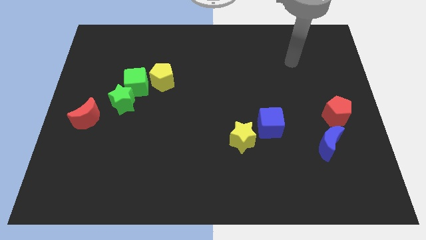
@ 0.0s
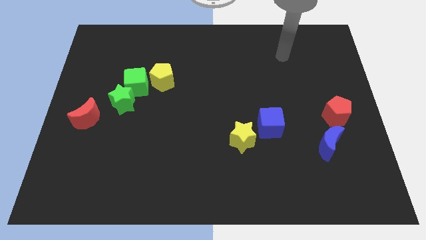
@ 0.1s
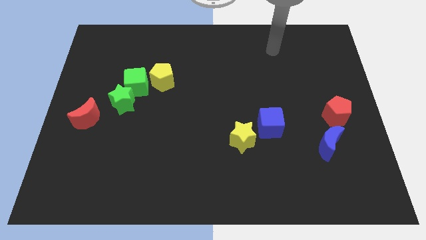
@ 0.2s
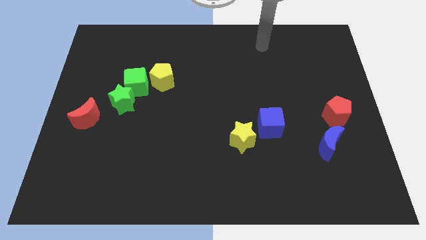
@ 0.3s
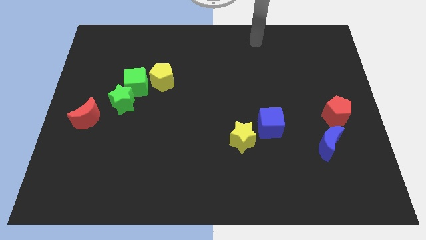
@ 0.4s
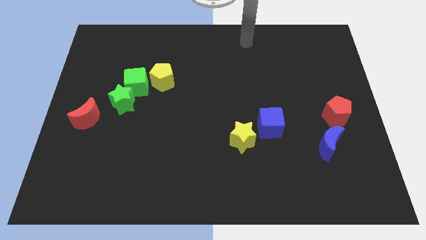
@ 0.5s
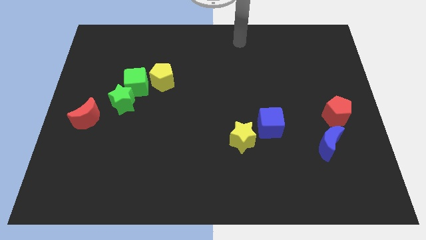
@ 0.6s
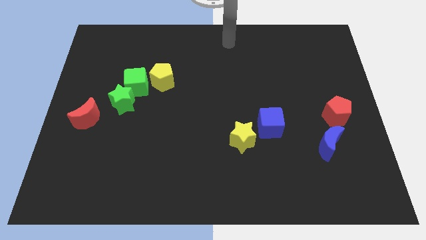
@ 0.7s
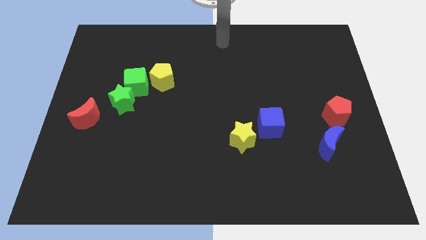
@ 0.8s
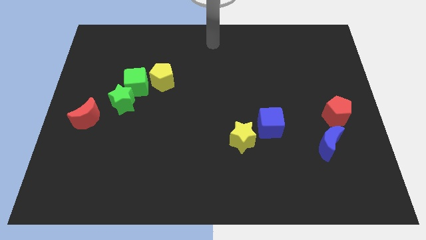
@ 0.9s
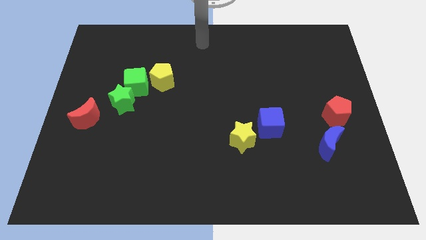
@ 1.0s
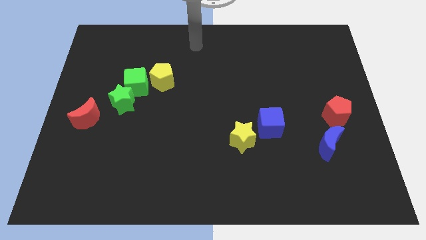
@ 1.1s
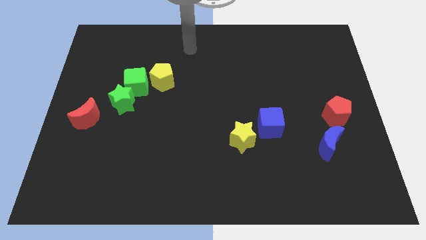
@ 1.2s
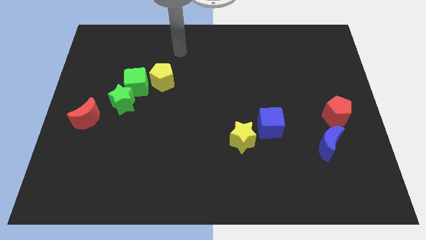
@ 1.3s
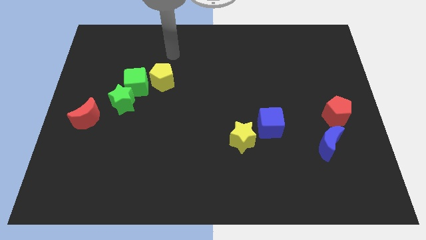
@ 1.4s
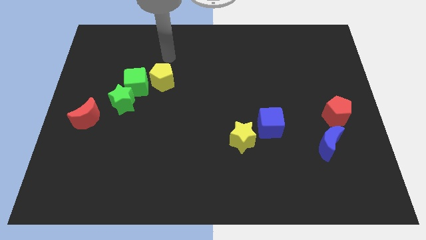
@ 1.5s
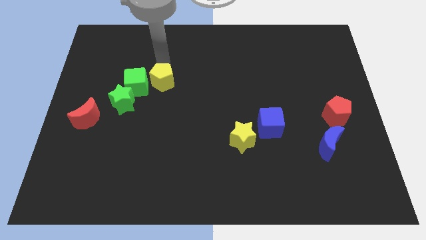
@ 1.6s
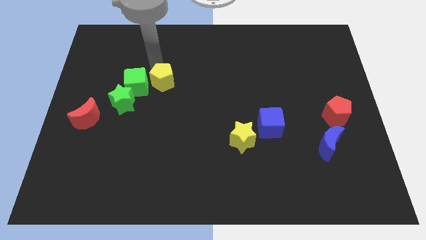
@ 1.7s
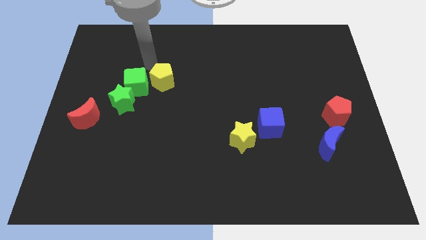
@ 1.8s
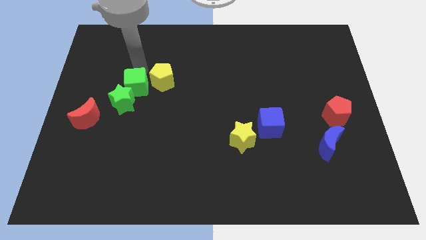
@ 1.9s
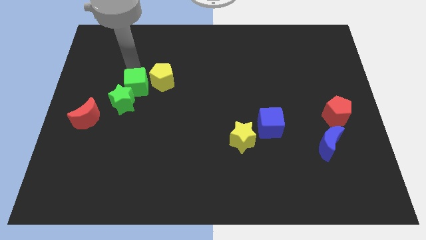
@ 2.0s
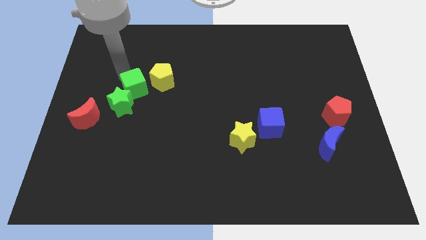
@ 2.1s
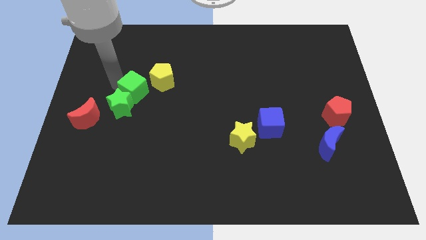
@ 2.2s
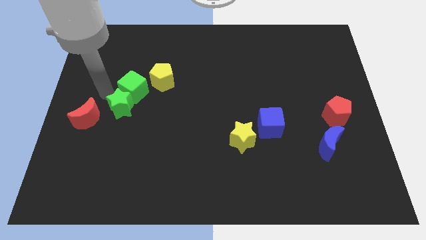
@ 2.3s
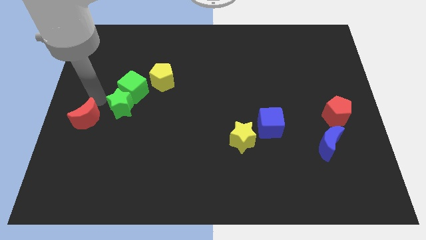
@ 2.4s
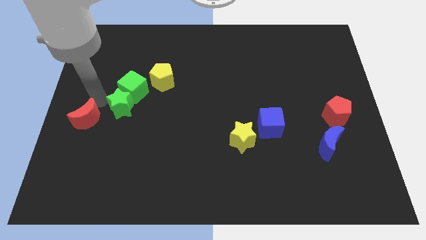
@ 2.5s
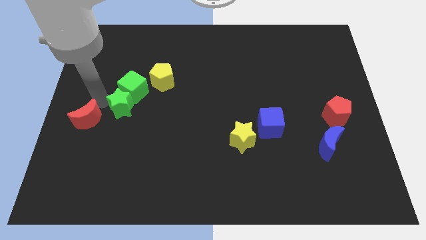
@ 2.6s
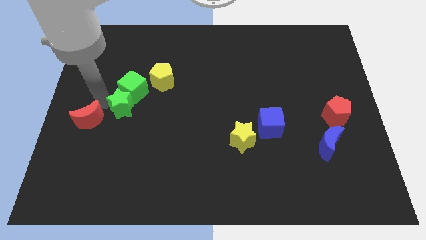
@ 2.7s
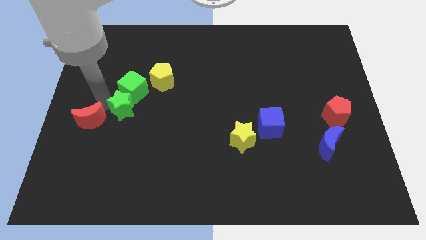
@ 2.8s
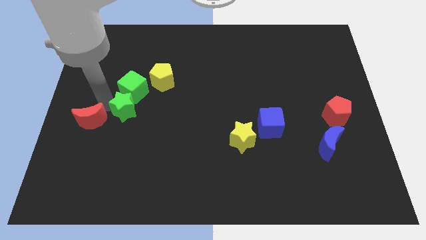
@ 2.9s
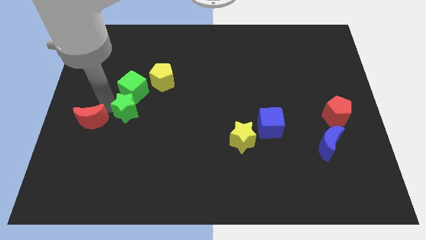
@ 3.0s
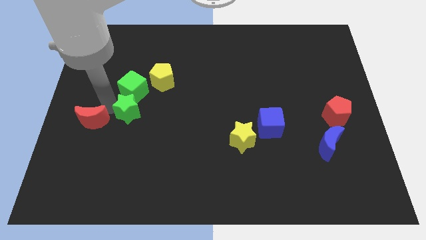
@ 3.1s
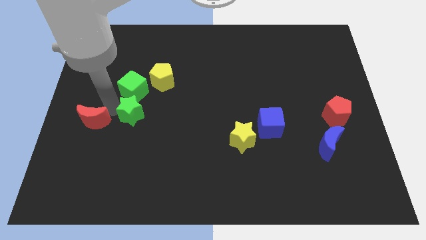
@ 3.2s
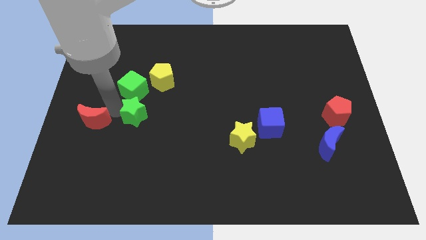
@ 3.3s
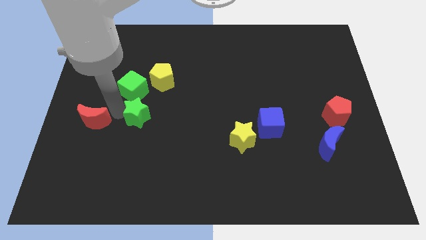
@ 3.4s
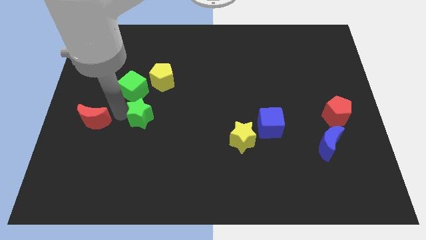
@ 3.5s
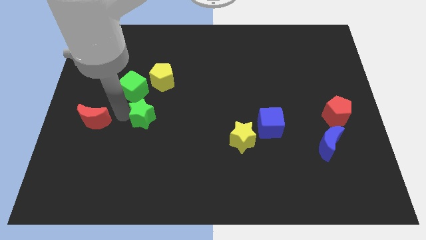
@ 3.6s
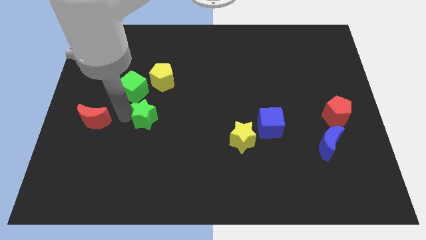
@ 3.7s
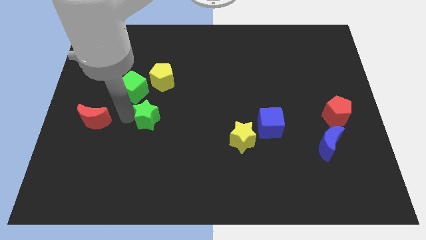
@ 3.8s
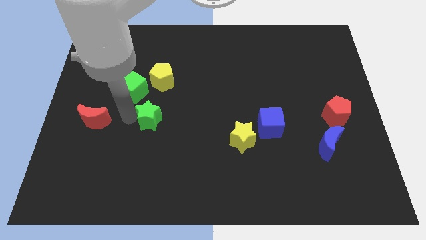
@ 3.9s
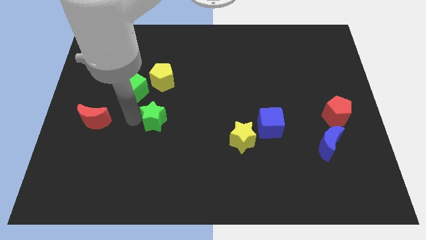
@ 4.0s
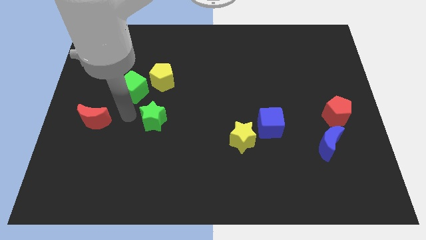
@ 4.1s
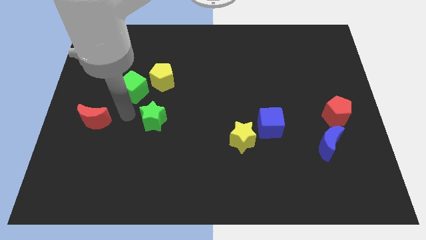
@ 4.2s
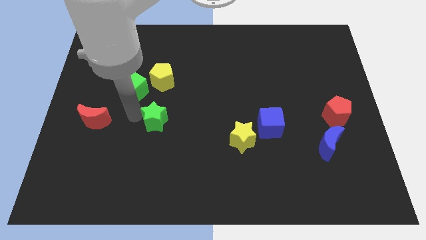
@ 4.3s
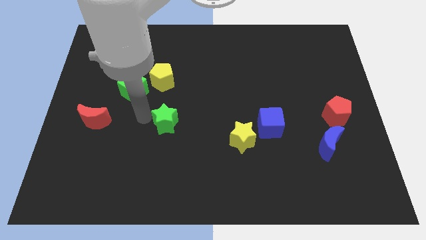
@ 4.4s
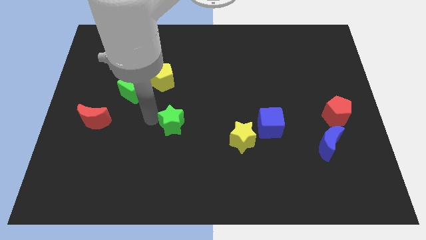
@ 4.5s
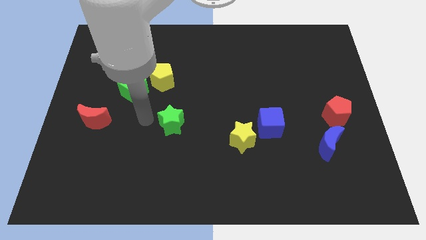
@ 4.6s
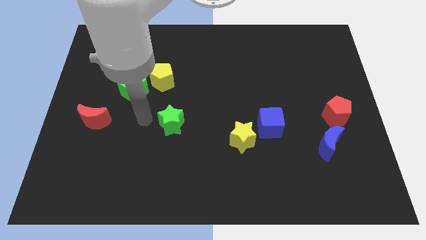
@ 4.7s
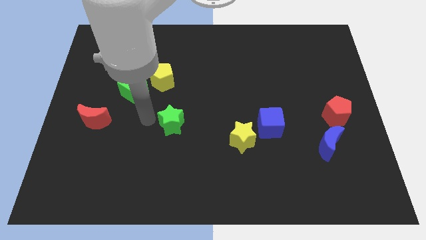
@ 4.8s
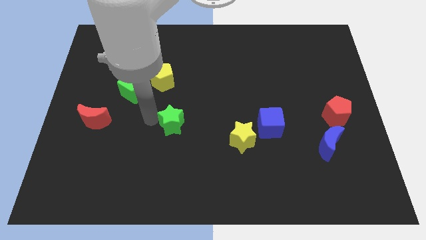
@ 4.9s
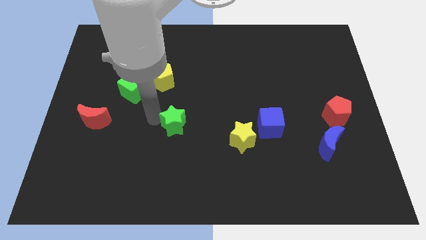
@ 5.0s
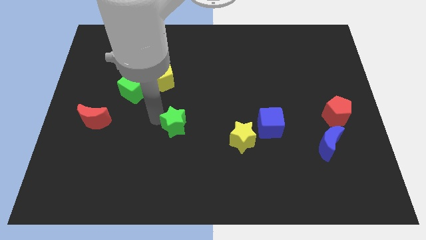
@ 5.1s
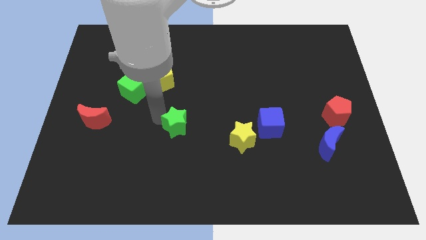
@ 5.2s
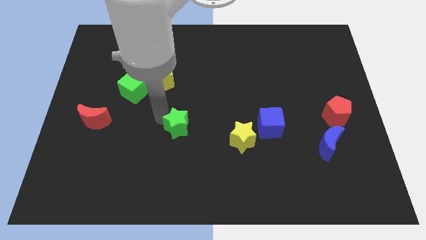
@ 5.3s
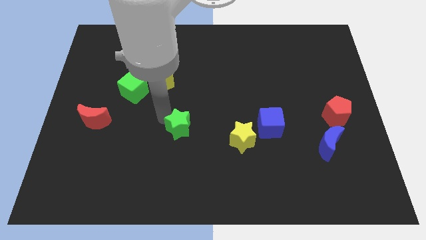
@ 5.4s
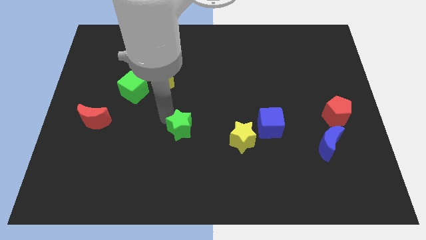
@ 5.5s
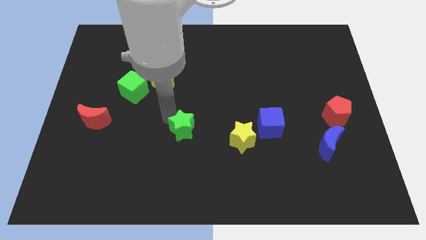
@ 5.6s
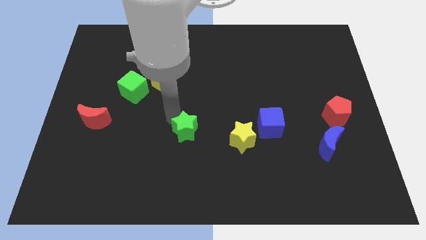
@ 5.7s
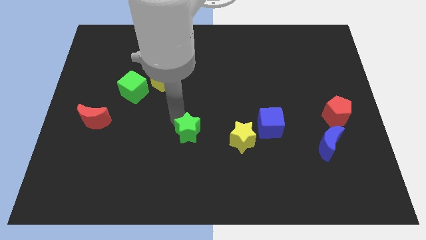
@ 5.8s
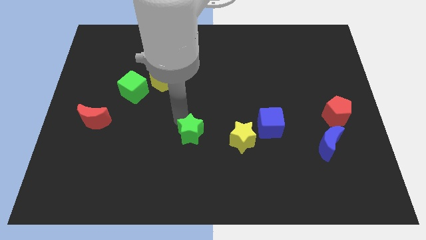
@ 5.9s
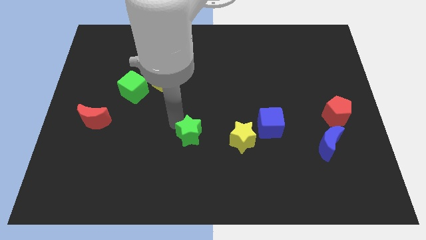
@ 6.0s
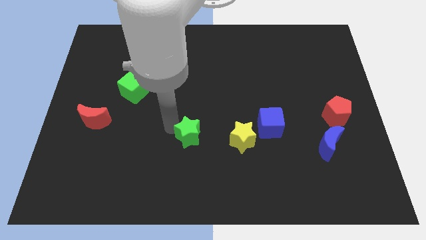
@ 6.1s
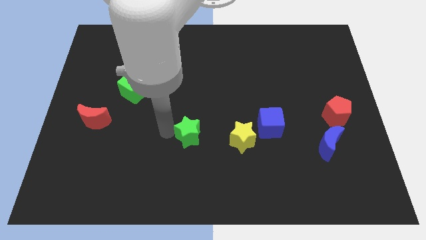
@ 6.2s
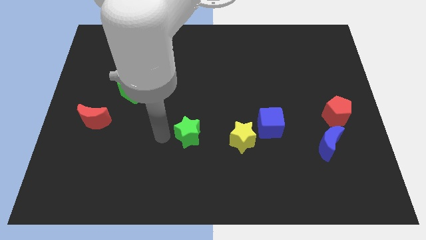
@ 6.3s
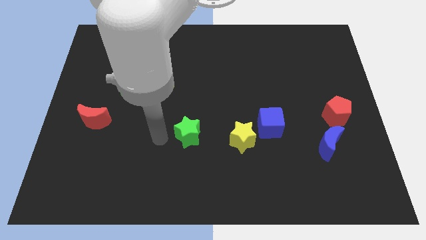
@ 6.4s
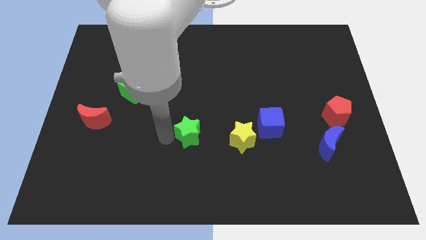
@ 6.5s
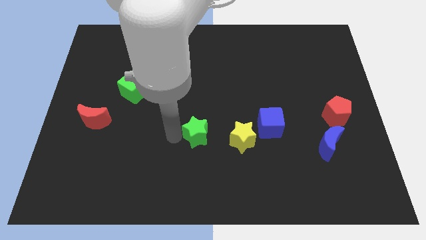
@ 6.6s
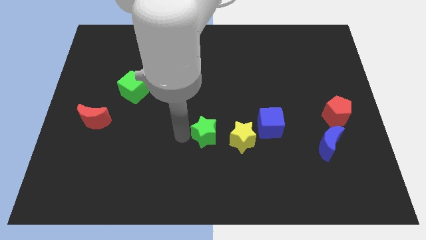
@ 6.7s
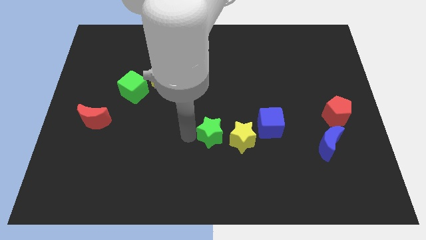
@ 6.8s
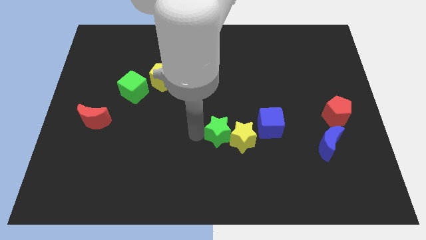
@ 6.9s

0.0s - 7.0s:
push the green star next to the yellow star
